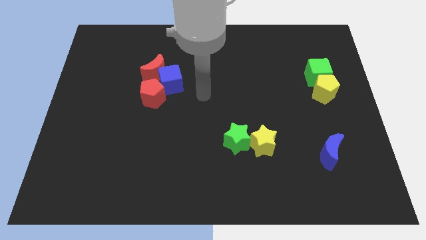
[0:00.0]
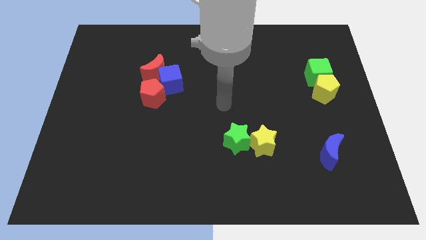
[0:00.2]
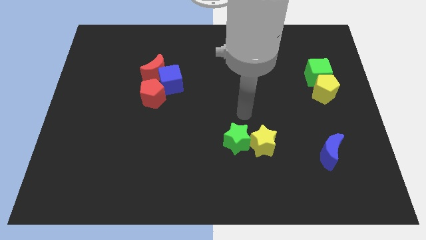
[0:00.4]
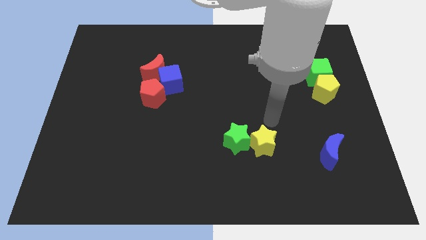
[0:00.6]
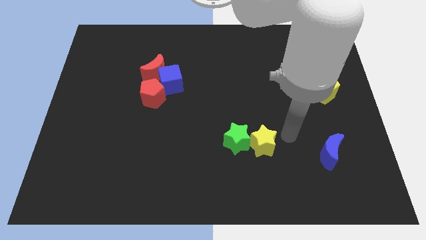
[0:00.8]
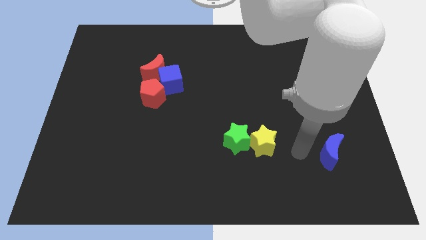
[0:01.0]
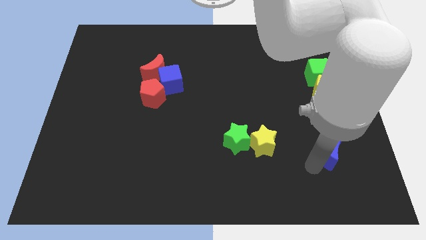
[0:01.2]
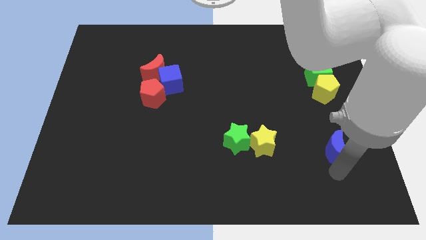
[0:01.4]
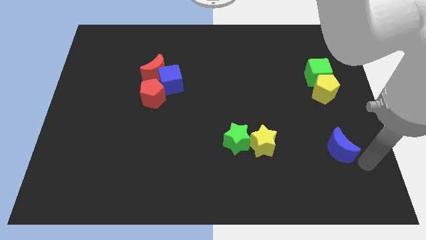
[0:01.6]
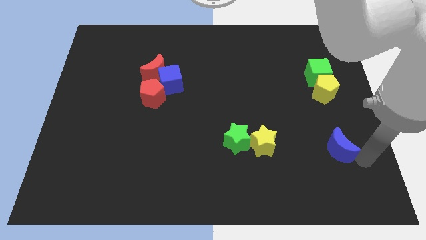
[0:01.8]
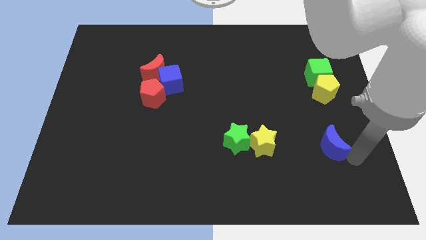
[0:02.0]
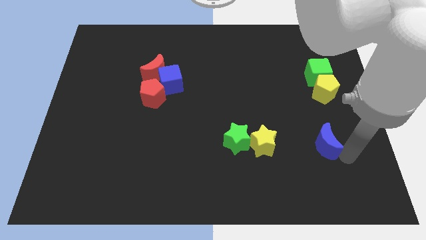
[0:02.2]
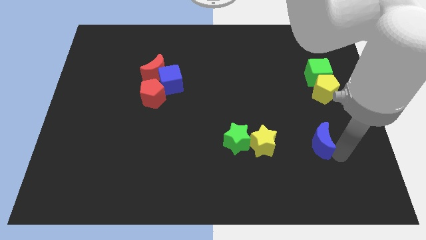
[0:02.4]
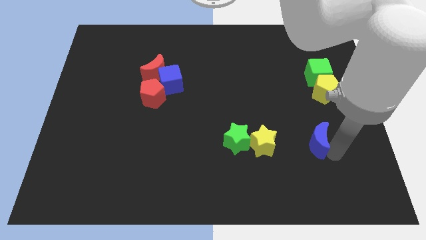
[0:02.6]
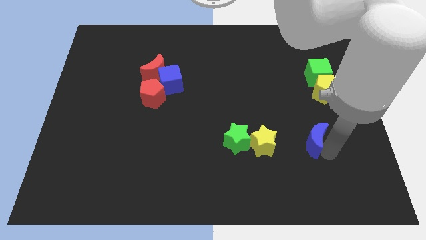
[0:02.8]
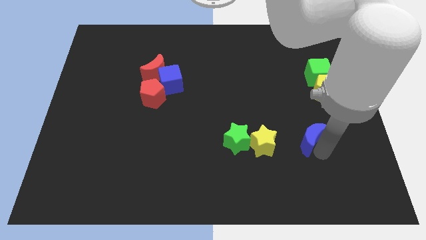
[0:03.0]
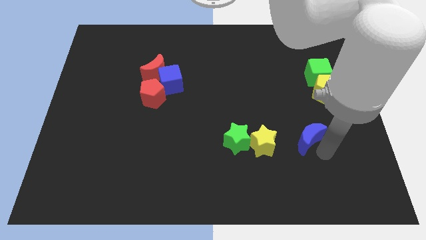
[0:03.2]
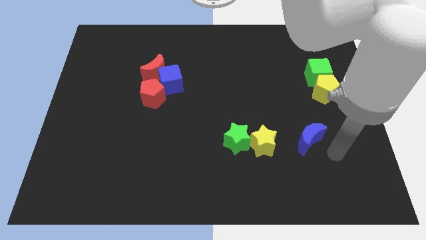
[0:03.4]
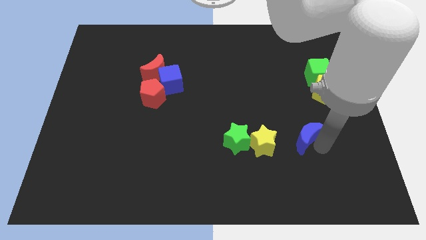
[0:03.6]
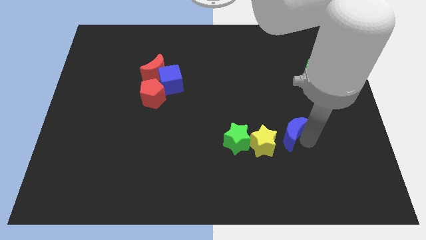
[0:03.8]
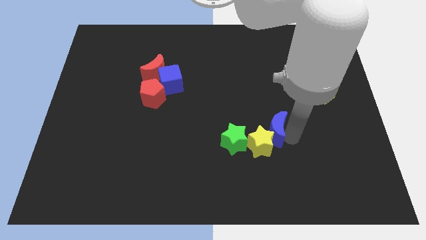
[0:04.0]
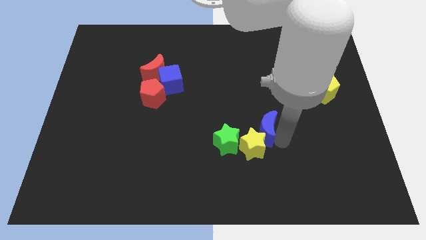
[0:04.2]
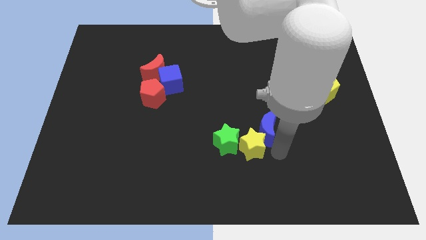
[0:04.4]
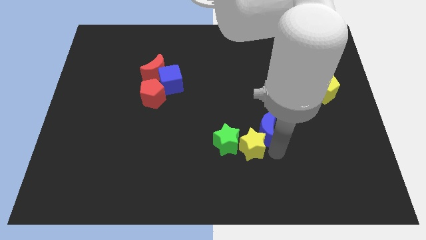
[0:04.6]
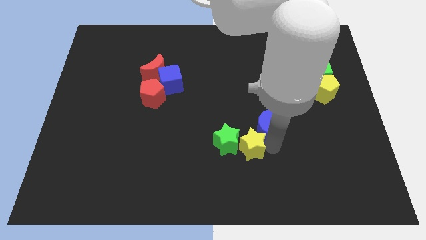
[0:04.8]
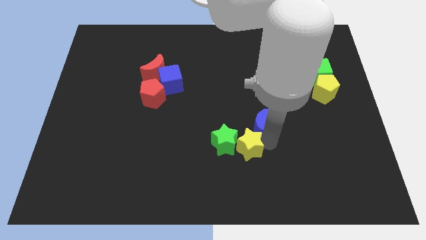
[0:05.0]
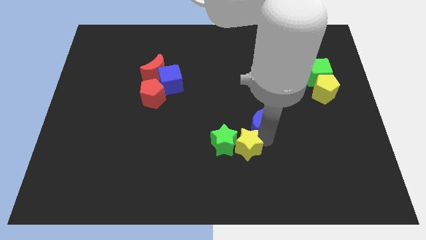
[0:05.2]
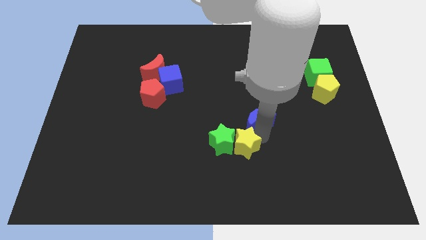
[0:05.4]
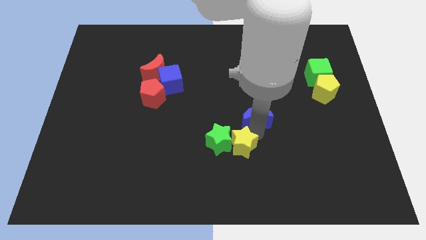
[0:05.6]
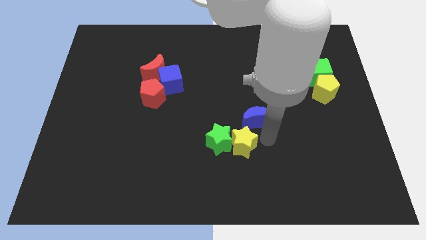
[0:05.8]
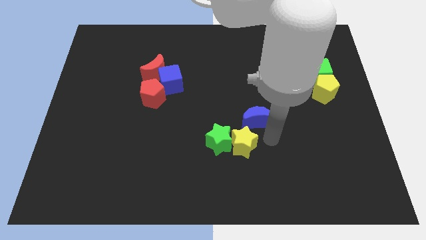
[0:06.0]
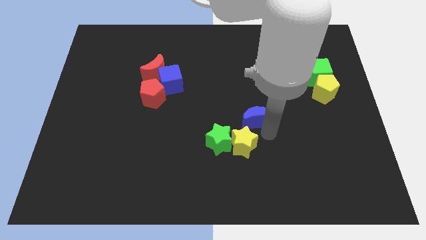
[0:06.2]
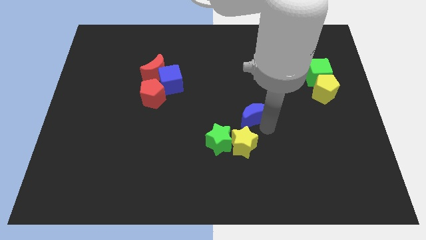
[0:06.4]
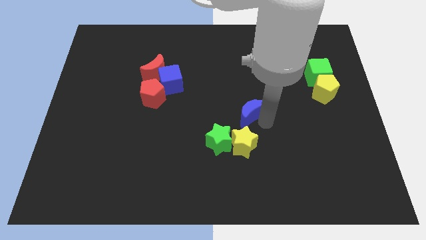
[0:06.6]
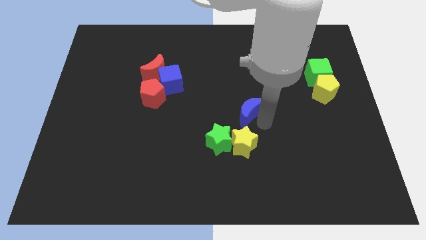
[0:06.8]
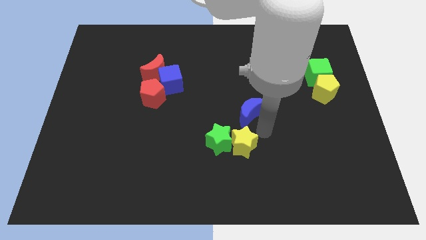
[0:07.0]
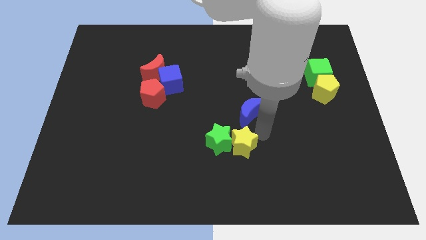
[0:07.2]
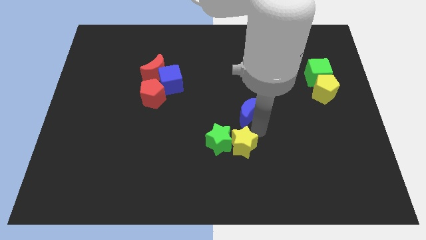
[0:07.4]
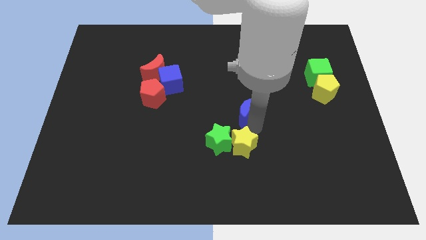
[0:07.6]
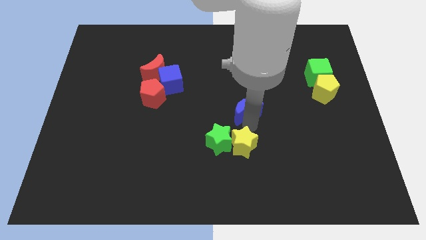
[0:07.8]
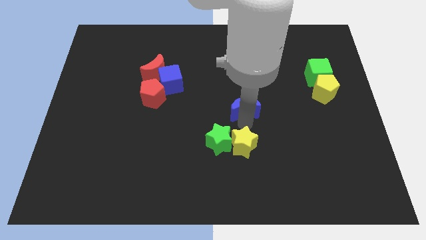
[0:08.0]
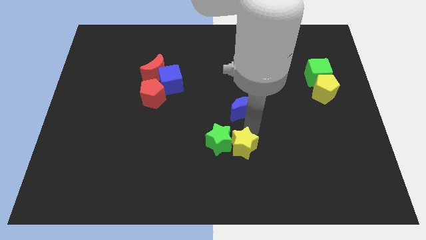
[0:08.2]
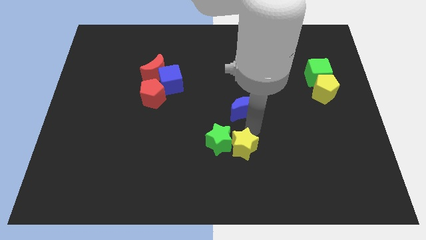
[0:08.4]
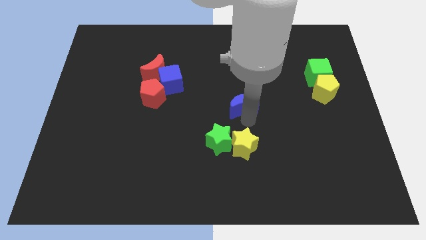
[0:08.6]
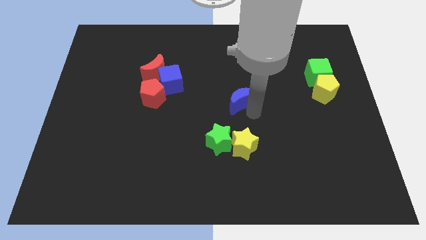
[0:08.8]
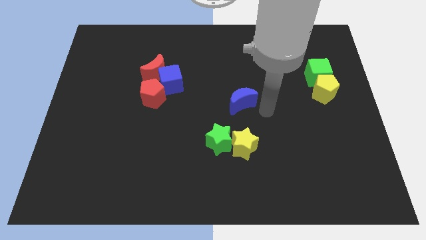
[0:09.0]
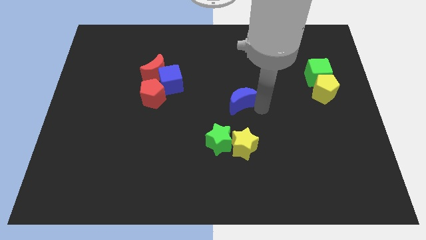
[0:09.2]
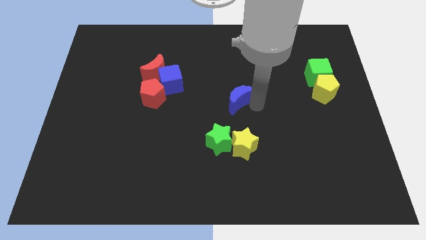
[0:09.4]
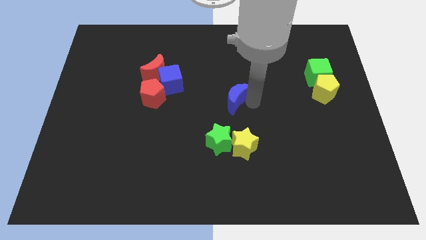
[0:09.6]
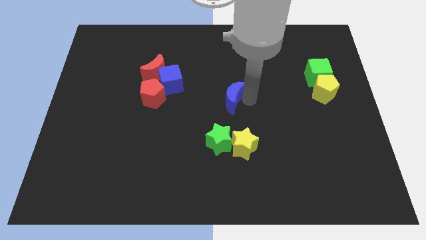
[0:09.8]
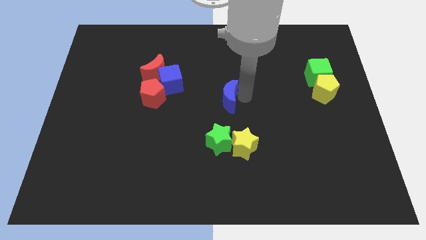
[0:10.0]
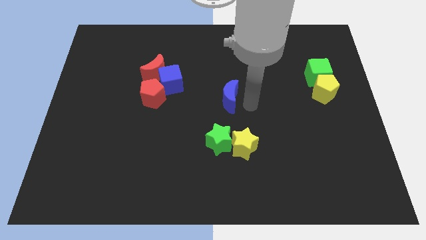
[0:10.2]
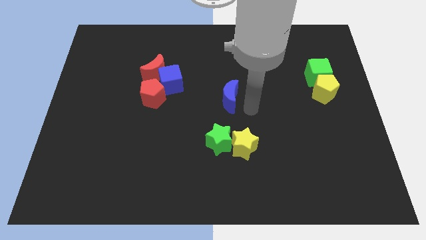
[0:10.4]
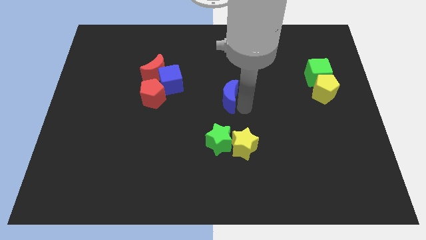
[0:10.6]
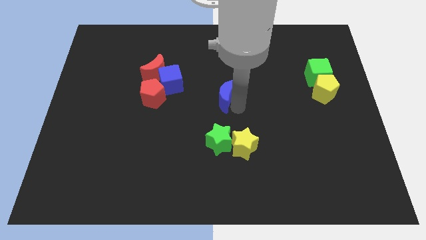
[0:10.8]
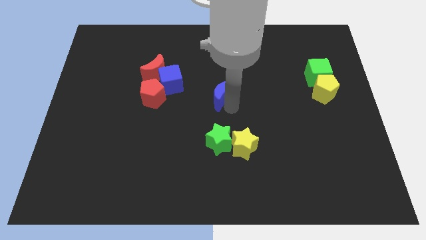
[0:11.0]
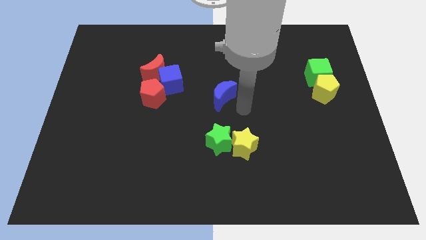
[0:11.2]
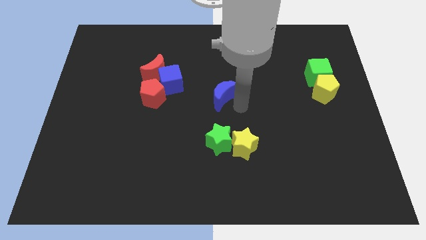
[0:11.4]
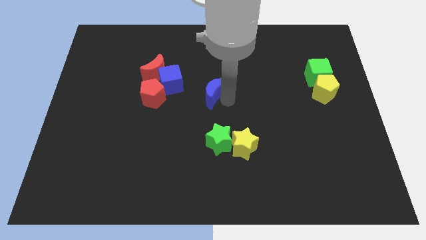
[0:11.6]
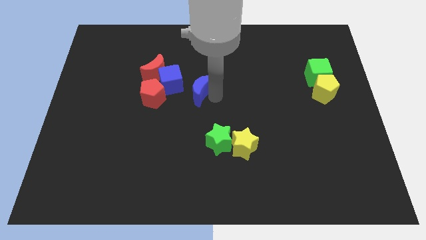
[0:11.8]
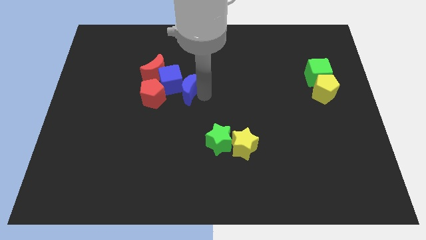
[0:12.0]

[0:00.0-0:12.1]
put the blue moon close to the blue cube

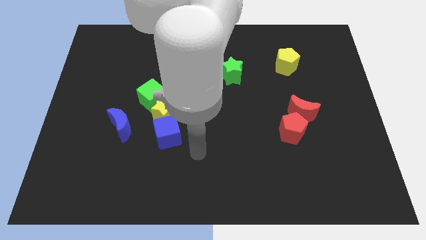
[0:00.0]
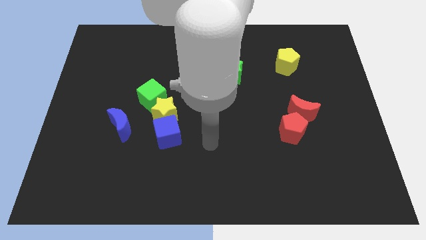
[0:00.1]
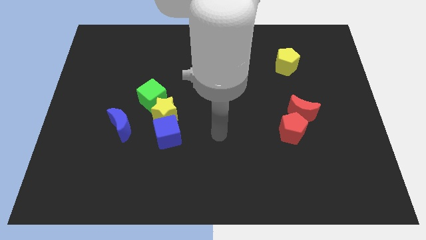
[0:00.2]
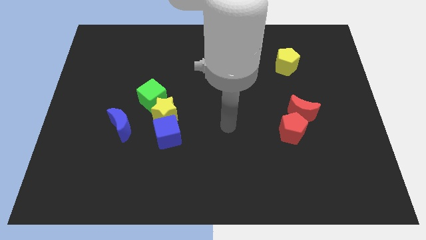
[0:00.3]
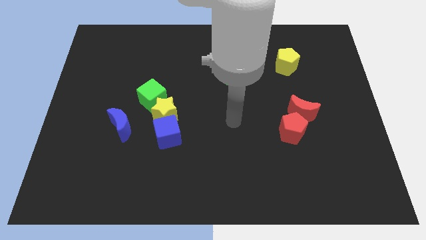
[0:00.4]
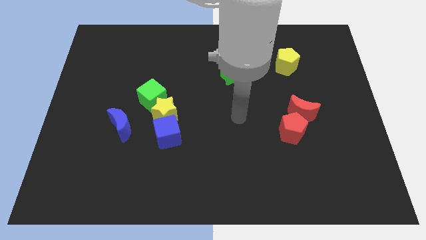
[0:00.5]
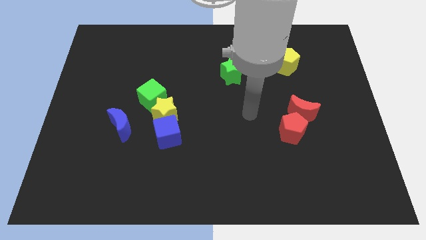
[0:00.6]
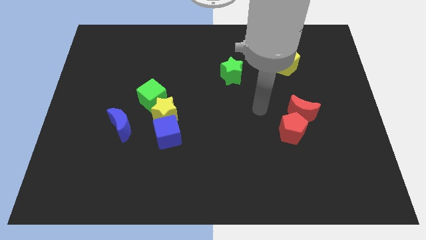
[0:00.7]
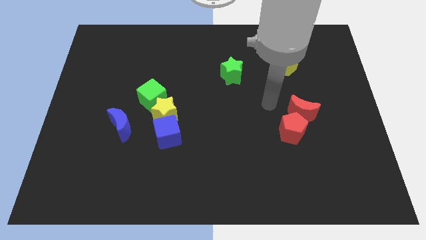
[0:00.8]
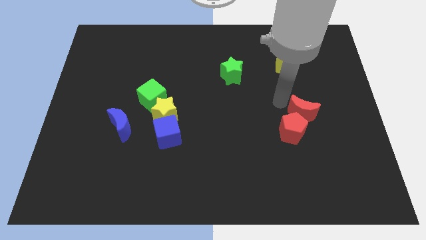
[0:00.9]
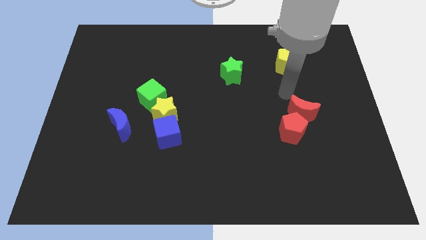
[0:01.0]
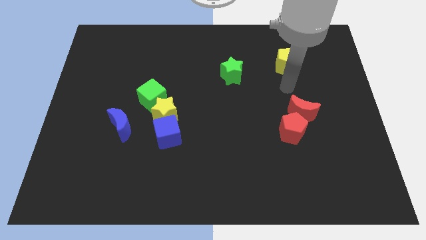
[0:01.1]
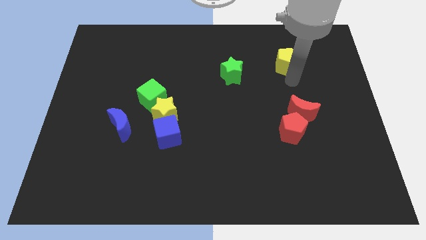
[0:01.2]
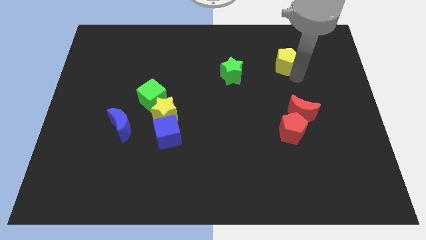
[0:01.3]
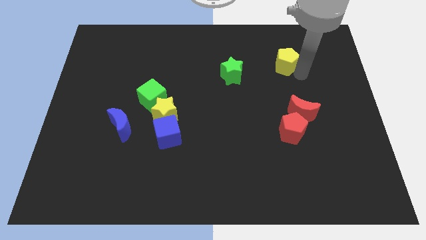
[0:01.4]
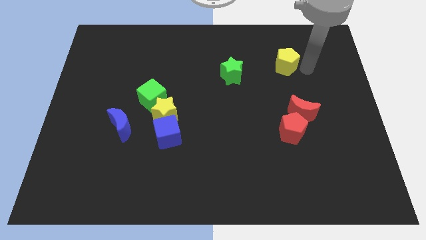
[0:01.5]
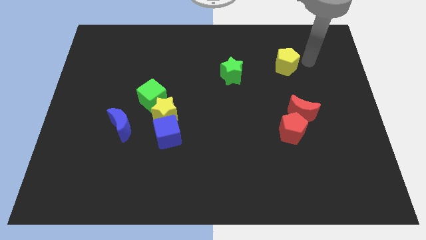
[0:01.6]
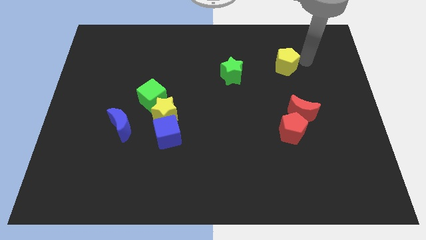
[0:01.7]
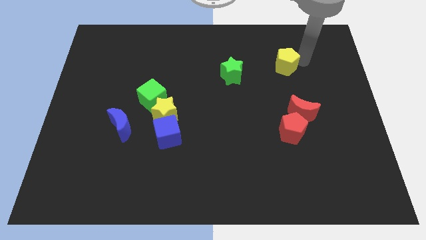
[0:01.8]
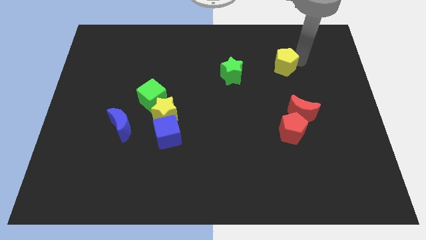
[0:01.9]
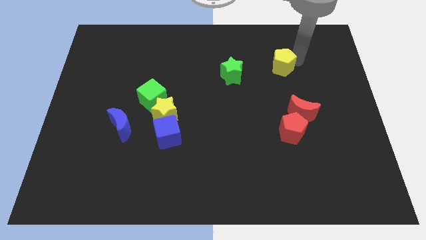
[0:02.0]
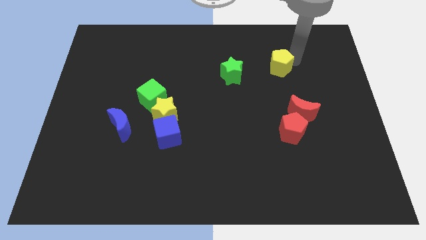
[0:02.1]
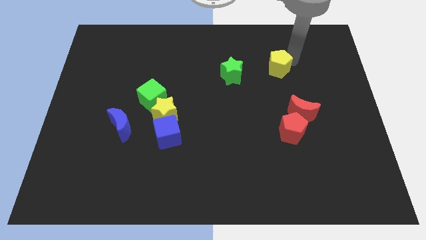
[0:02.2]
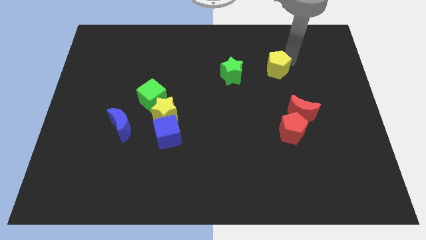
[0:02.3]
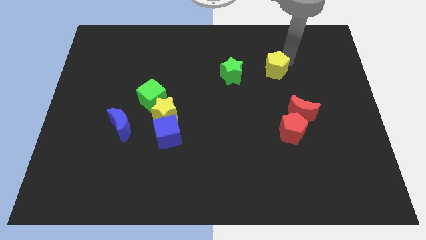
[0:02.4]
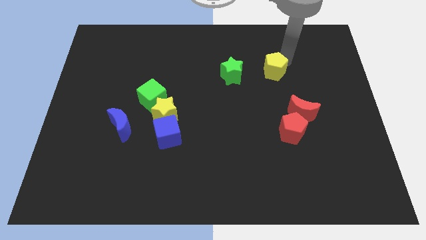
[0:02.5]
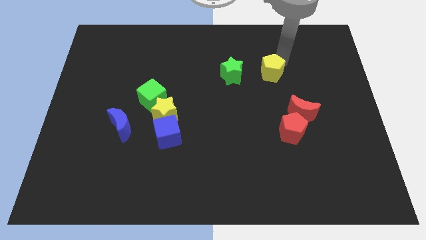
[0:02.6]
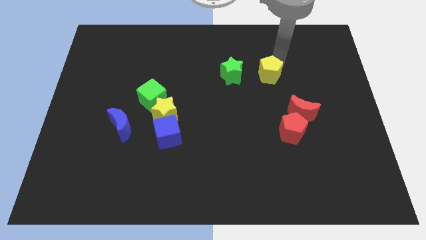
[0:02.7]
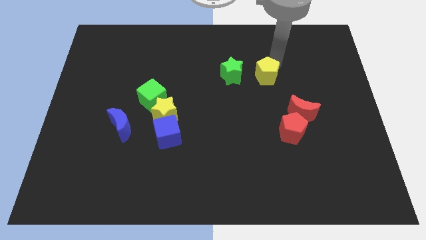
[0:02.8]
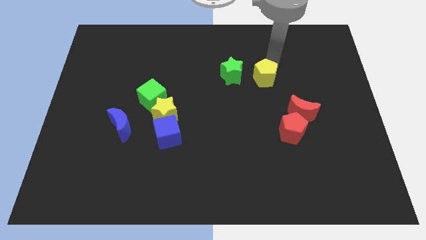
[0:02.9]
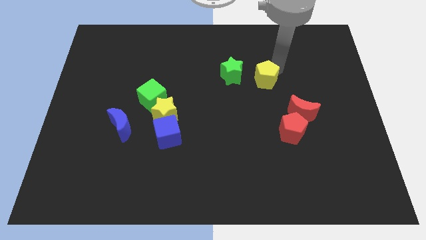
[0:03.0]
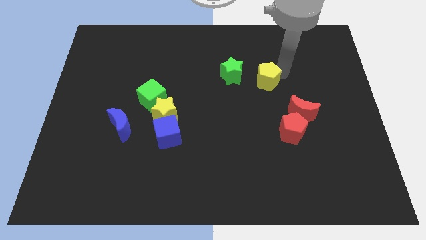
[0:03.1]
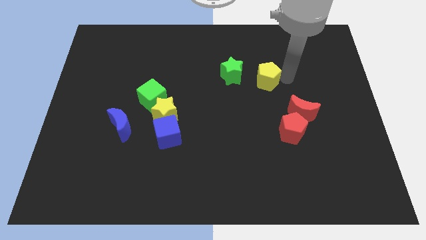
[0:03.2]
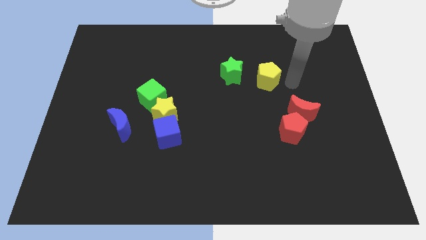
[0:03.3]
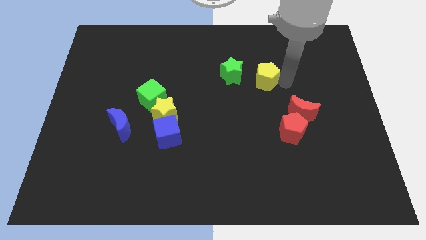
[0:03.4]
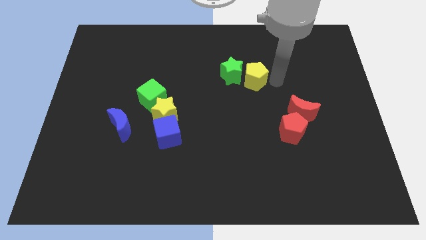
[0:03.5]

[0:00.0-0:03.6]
put the yellow pentagon towards the green star
